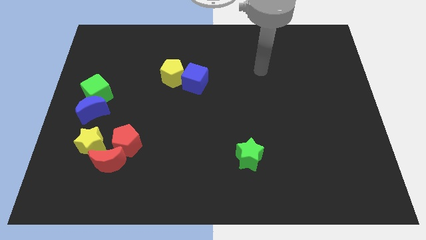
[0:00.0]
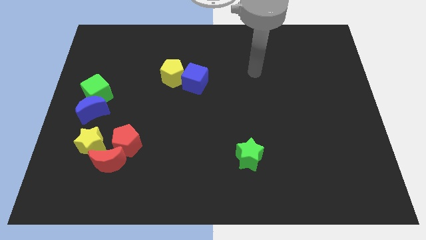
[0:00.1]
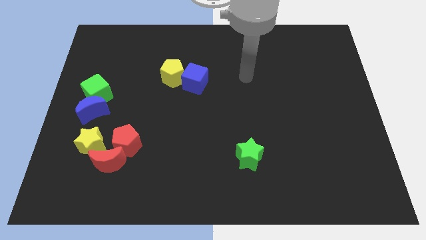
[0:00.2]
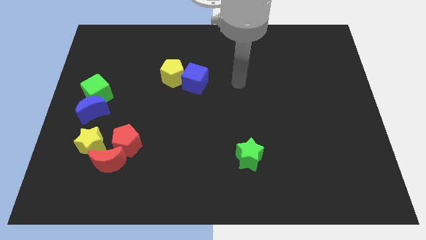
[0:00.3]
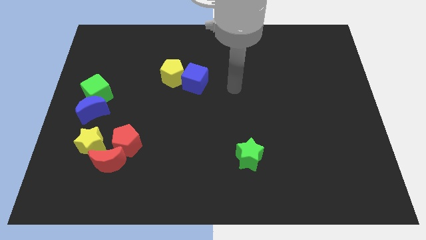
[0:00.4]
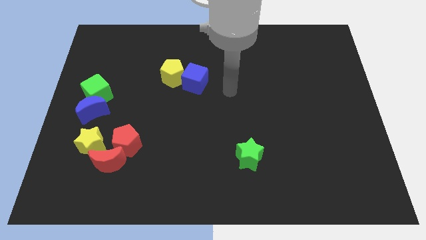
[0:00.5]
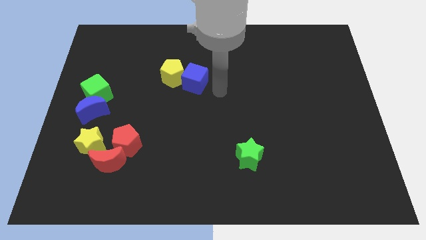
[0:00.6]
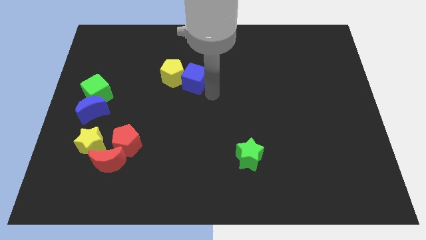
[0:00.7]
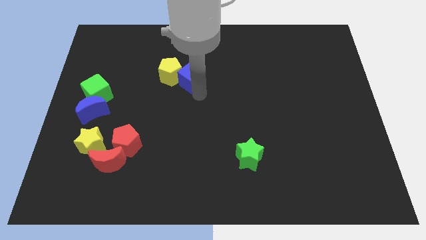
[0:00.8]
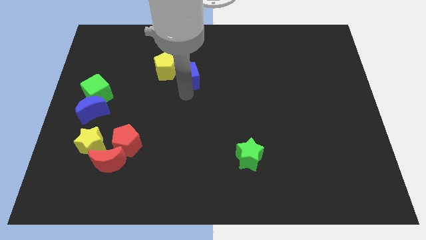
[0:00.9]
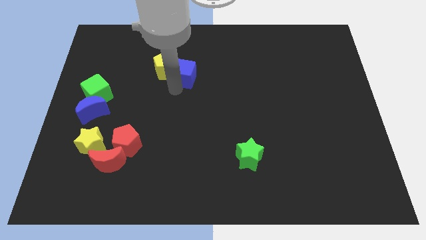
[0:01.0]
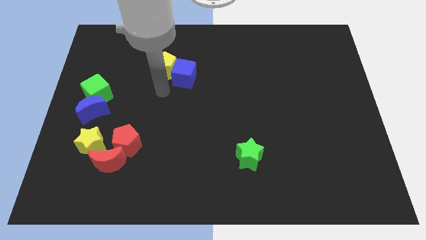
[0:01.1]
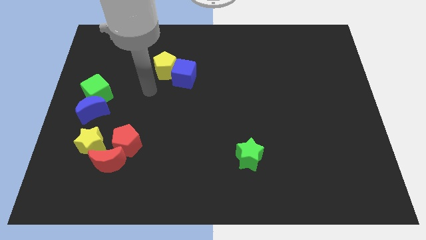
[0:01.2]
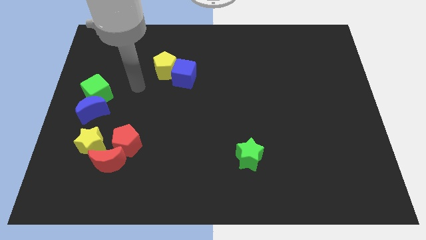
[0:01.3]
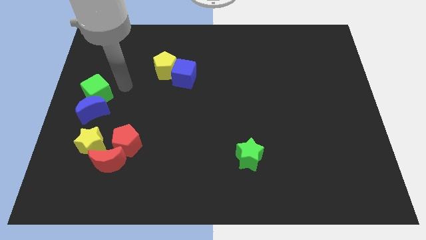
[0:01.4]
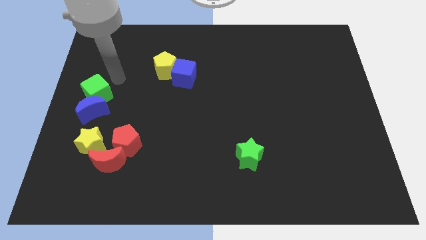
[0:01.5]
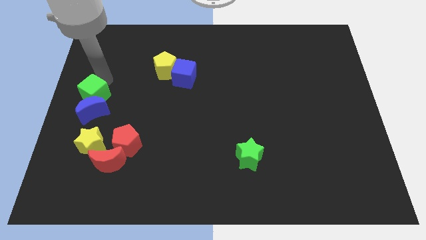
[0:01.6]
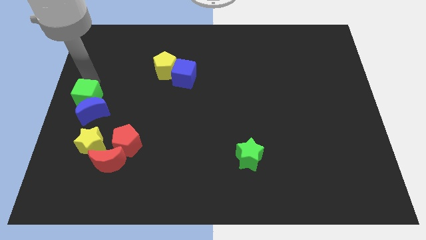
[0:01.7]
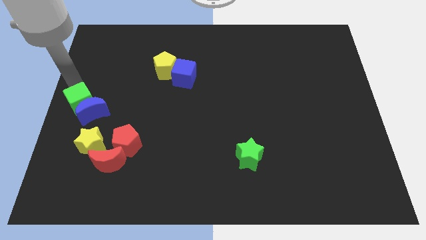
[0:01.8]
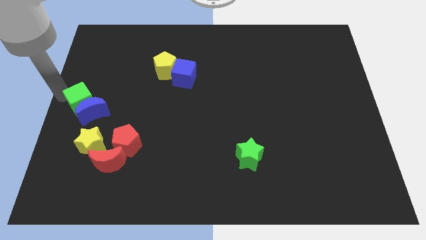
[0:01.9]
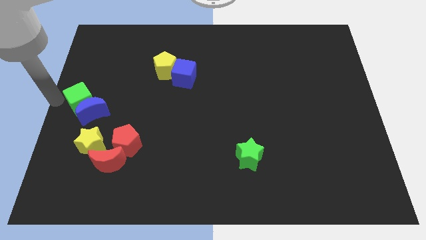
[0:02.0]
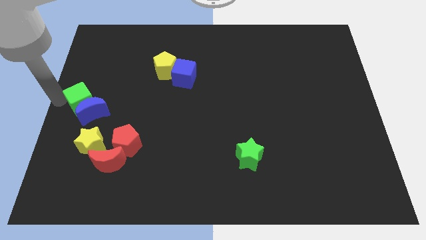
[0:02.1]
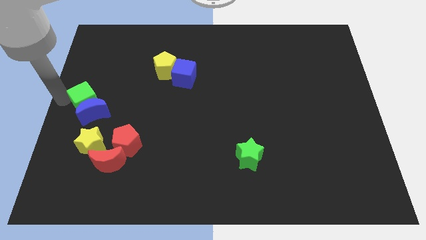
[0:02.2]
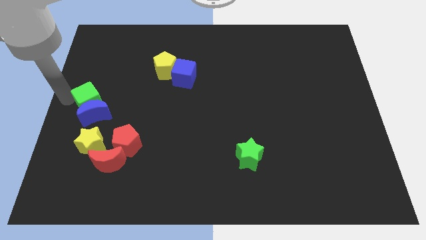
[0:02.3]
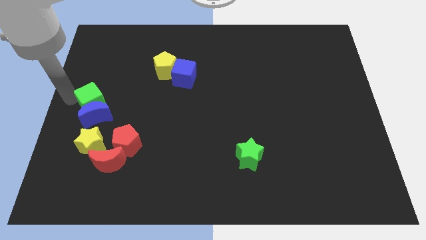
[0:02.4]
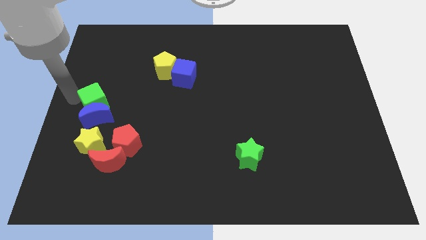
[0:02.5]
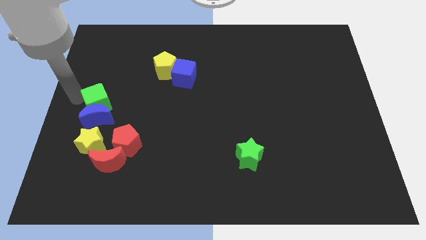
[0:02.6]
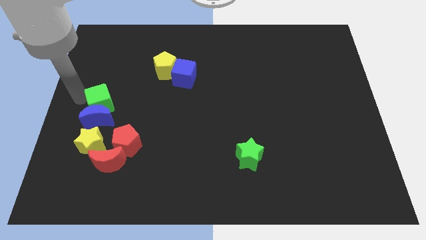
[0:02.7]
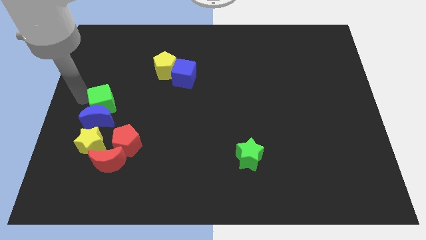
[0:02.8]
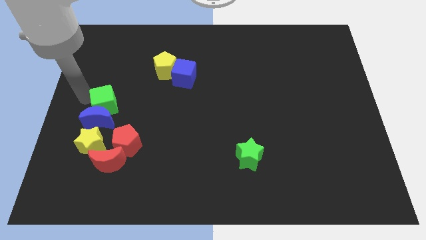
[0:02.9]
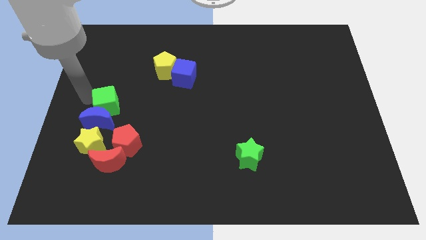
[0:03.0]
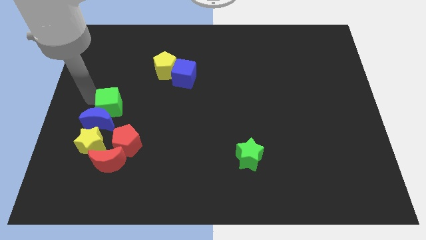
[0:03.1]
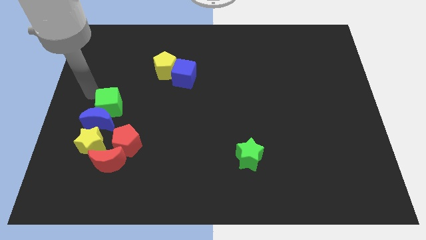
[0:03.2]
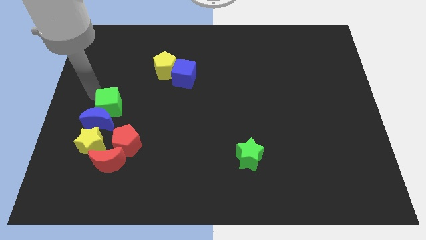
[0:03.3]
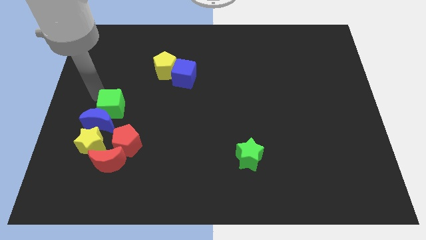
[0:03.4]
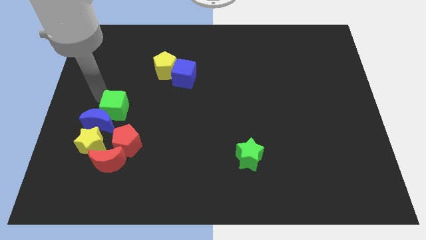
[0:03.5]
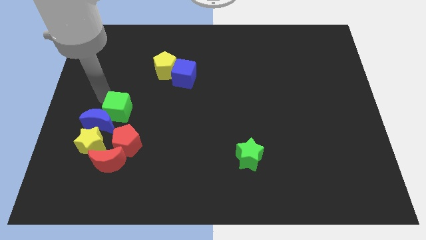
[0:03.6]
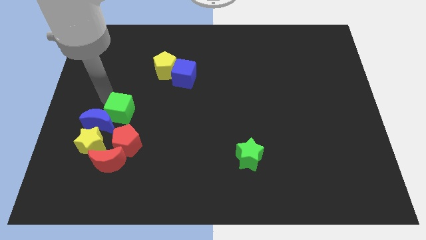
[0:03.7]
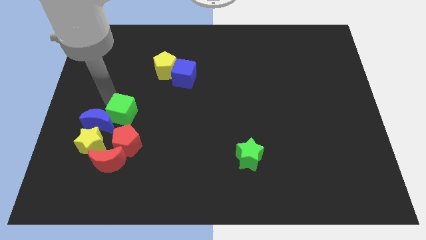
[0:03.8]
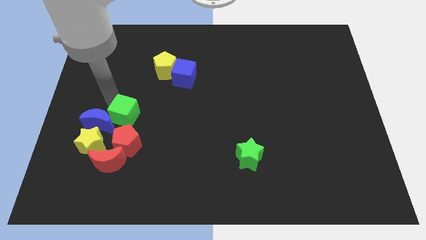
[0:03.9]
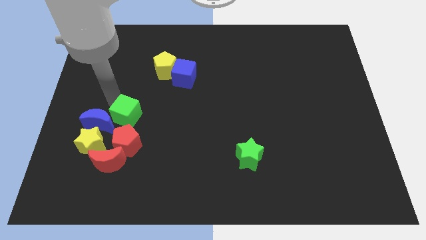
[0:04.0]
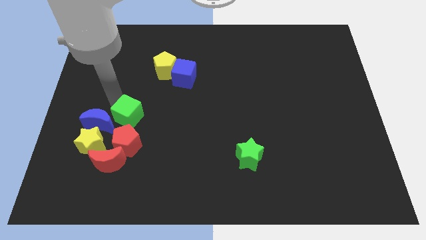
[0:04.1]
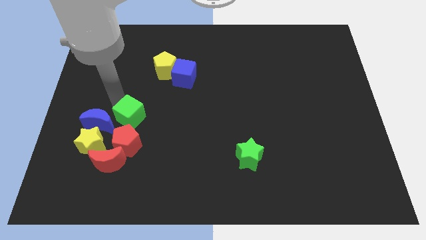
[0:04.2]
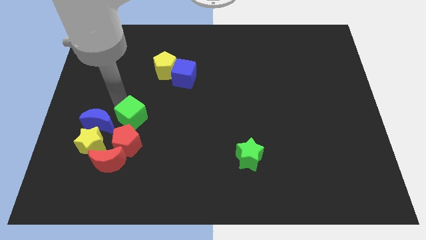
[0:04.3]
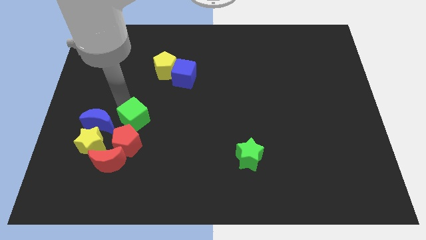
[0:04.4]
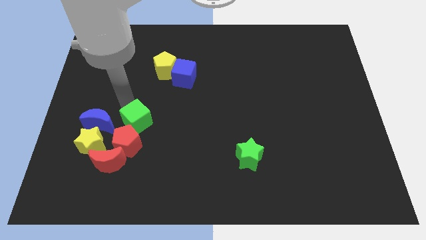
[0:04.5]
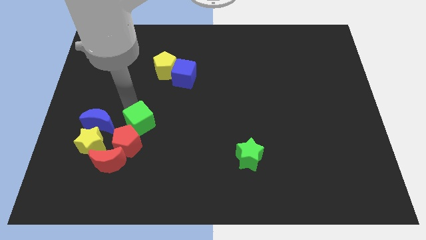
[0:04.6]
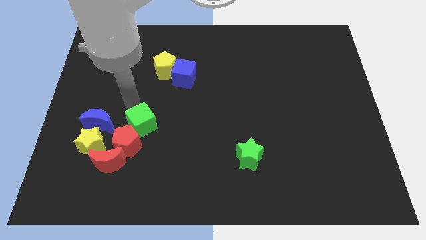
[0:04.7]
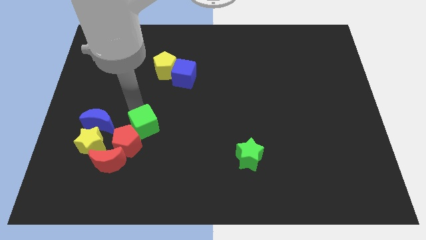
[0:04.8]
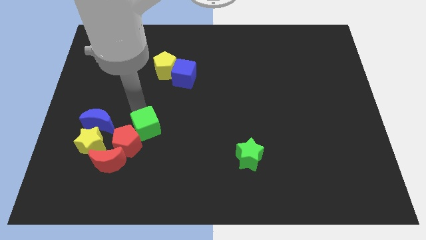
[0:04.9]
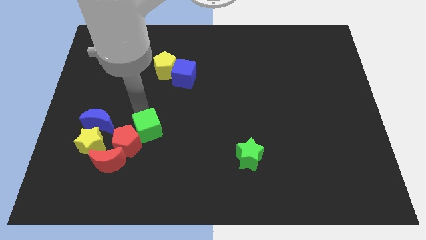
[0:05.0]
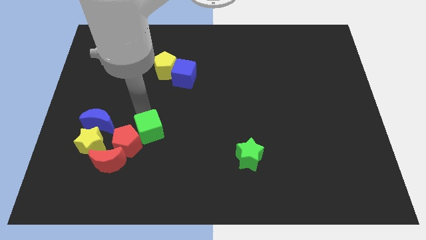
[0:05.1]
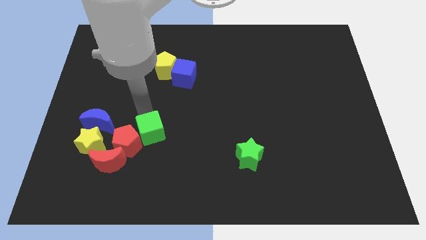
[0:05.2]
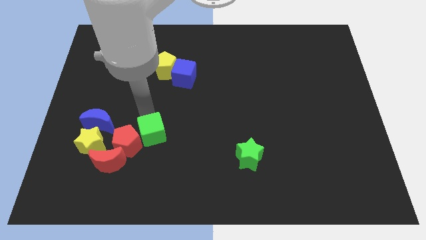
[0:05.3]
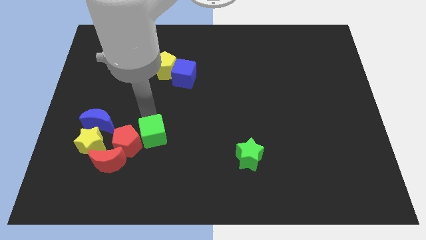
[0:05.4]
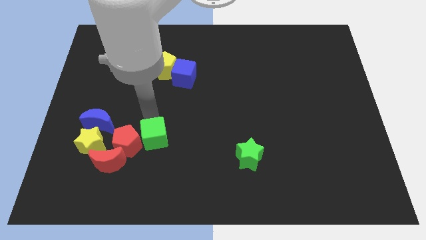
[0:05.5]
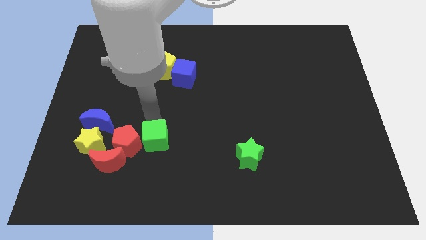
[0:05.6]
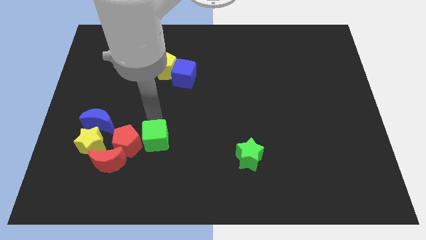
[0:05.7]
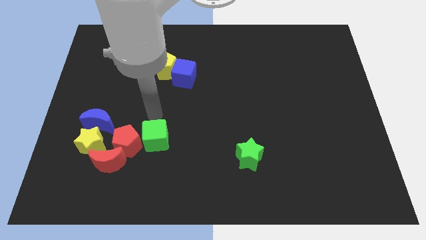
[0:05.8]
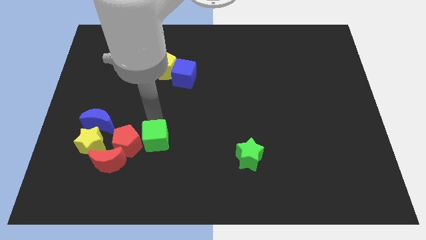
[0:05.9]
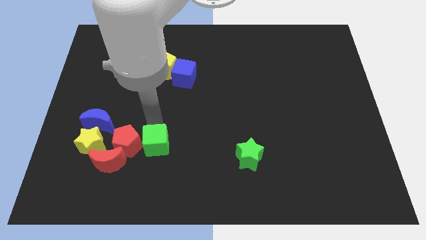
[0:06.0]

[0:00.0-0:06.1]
push the green cube right of the red moon
